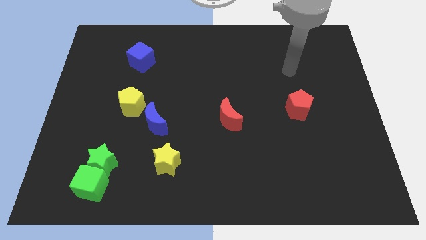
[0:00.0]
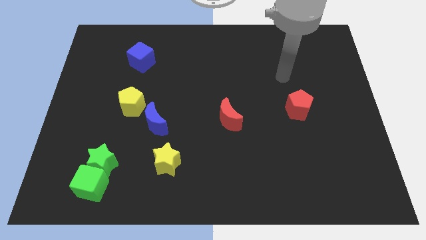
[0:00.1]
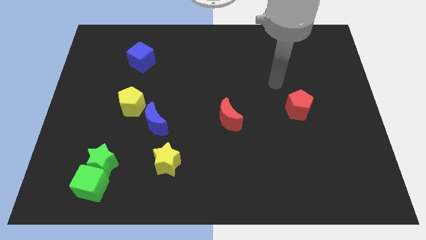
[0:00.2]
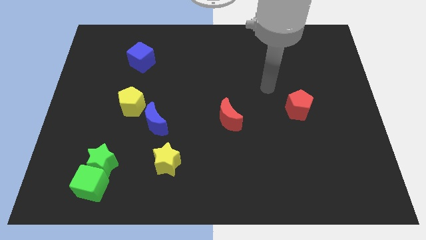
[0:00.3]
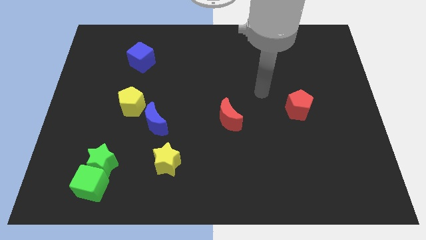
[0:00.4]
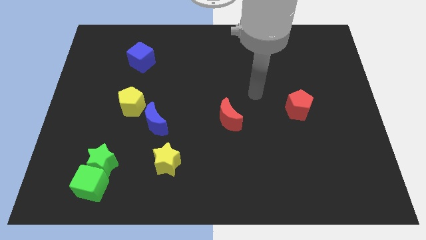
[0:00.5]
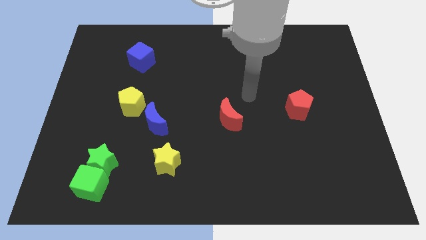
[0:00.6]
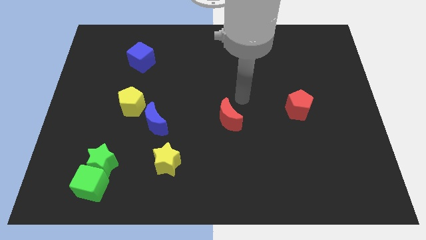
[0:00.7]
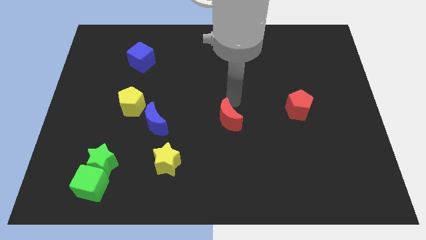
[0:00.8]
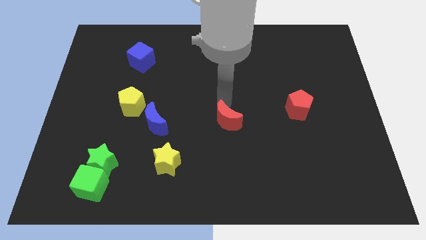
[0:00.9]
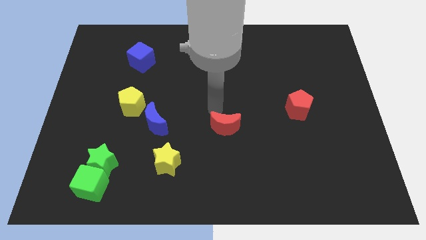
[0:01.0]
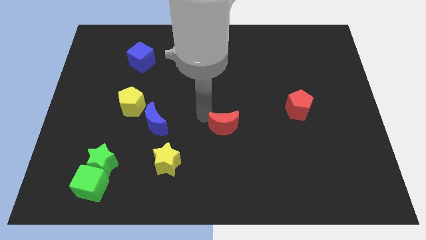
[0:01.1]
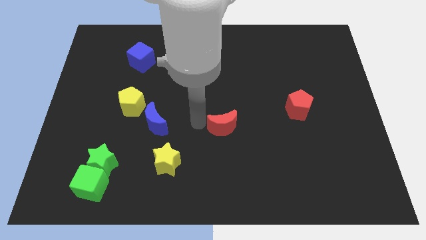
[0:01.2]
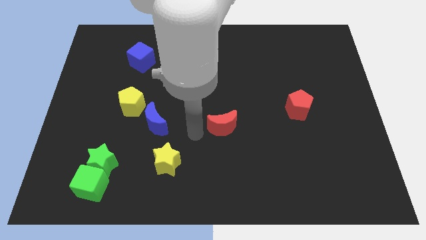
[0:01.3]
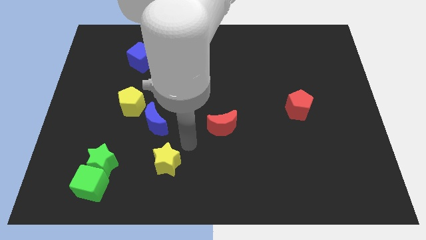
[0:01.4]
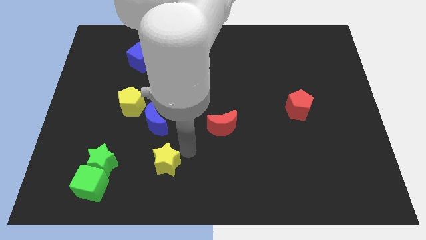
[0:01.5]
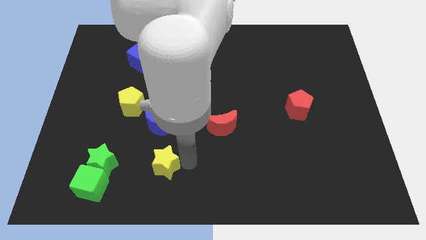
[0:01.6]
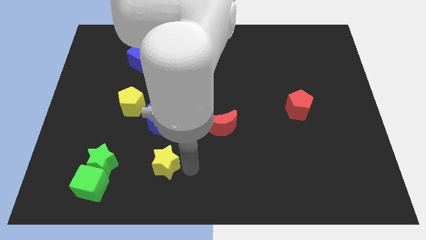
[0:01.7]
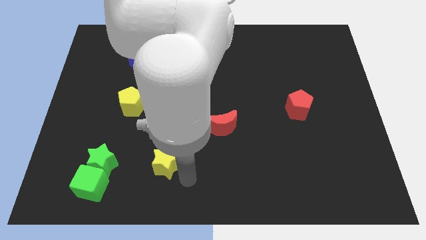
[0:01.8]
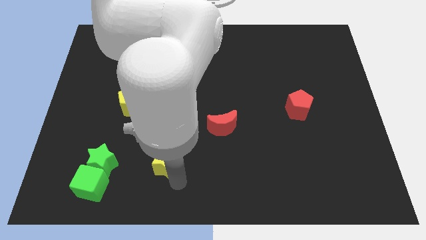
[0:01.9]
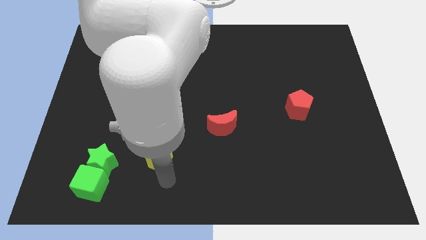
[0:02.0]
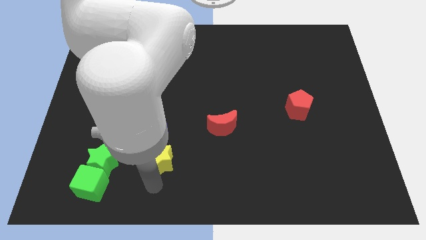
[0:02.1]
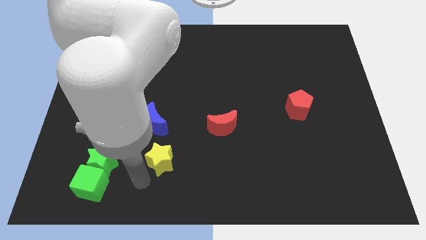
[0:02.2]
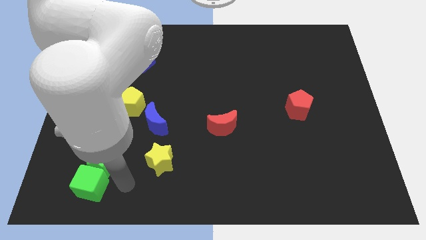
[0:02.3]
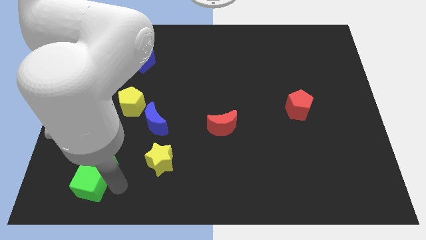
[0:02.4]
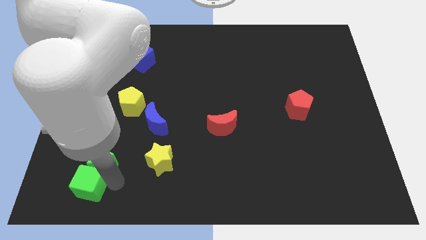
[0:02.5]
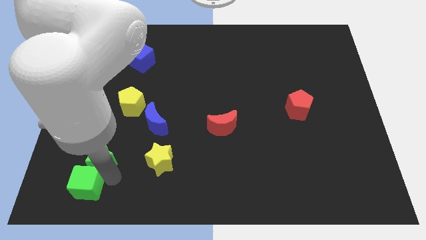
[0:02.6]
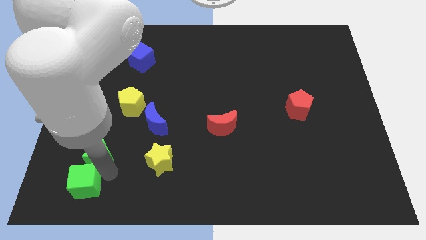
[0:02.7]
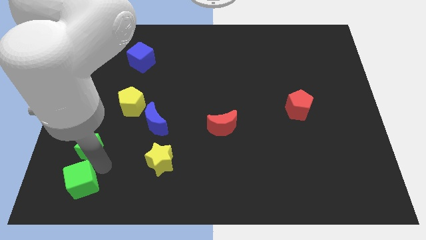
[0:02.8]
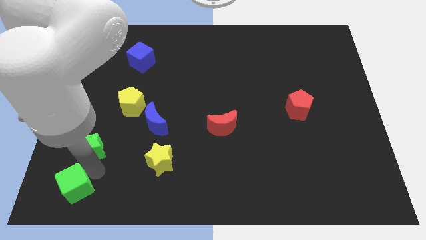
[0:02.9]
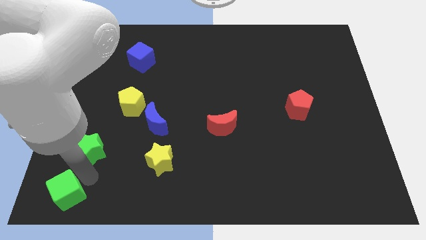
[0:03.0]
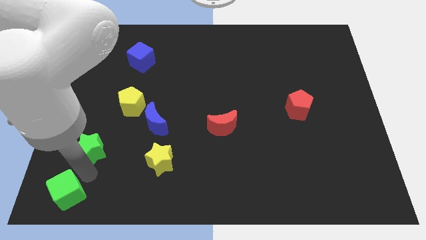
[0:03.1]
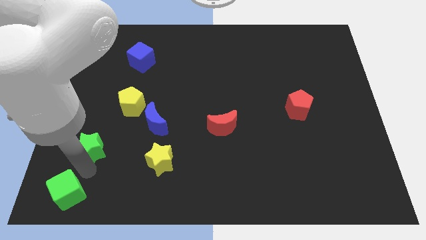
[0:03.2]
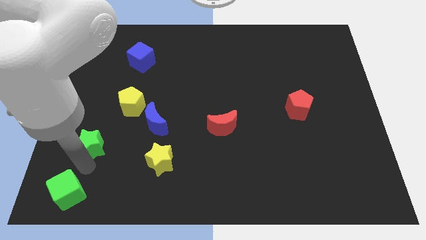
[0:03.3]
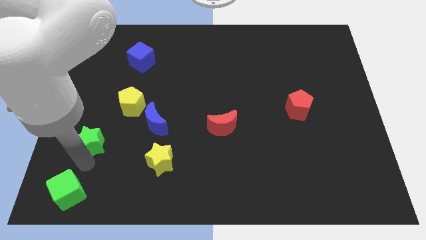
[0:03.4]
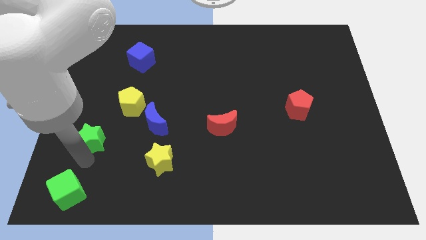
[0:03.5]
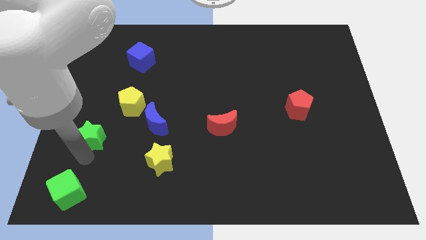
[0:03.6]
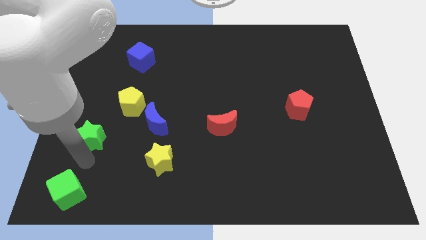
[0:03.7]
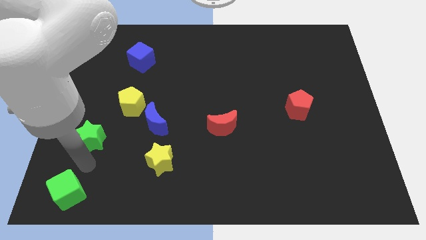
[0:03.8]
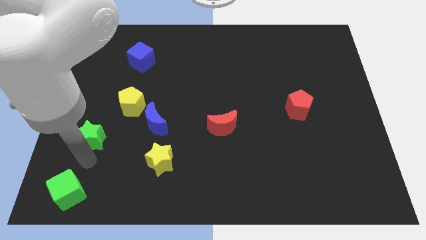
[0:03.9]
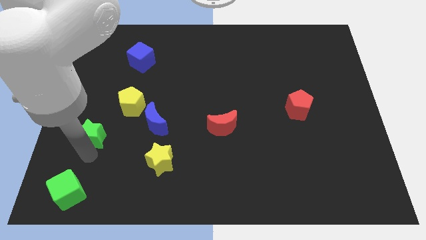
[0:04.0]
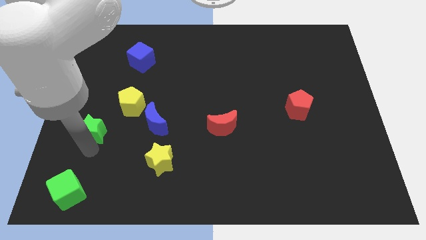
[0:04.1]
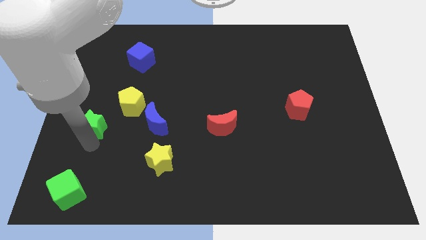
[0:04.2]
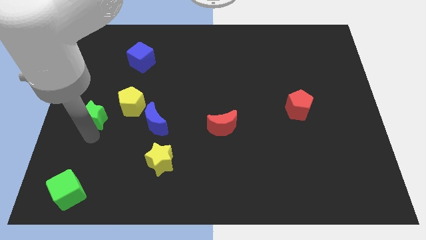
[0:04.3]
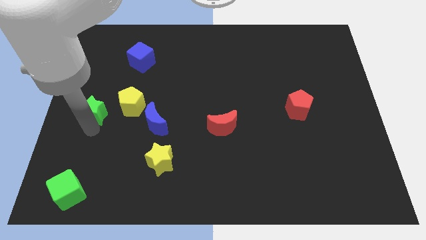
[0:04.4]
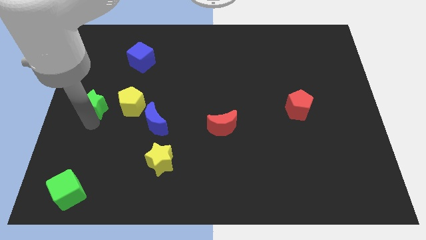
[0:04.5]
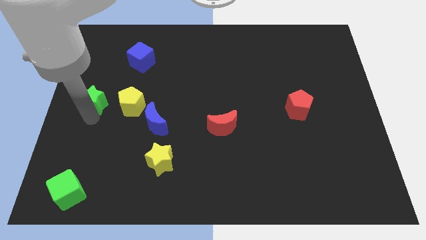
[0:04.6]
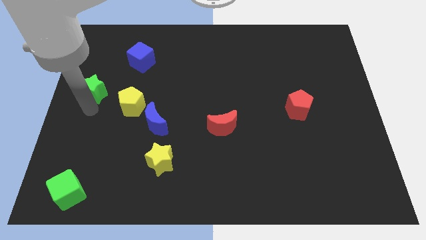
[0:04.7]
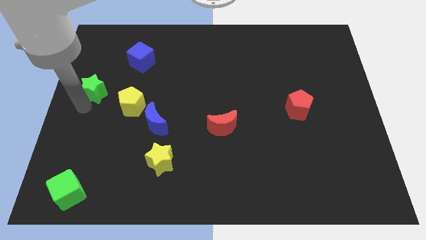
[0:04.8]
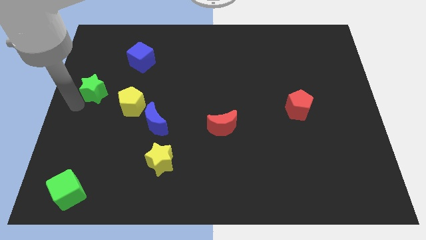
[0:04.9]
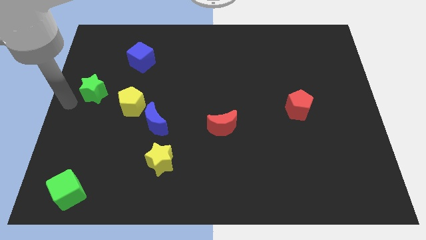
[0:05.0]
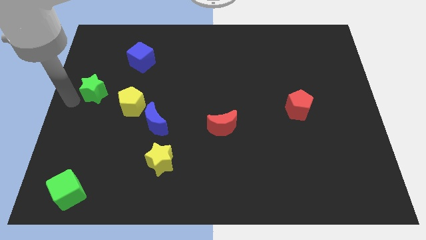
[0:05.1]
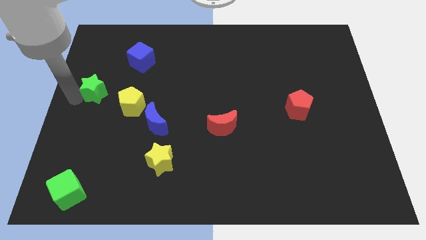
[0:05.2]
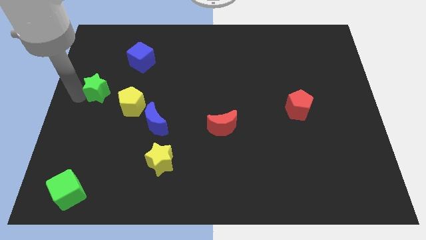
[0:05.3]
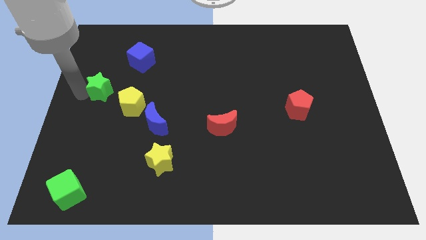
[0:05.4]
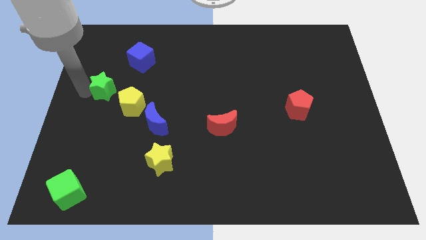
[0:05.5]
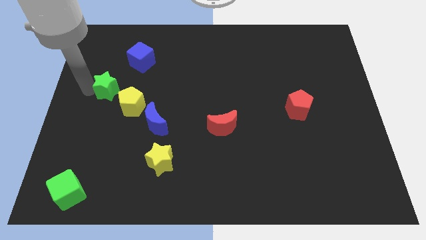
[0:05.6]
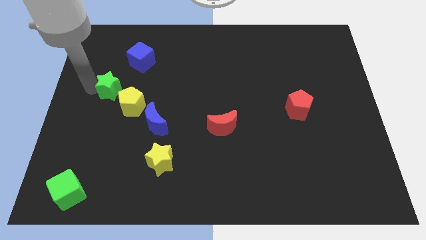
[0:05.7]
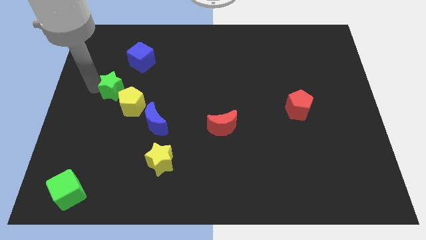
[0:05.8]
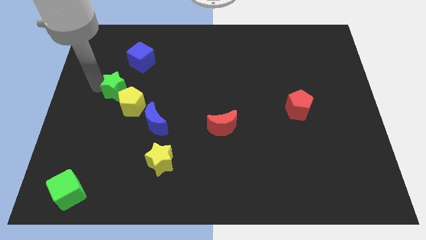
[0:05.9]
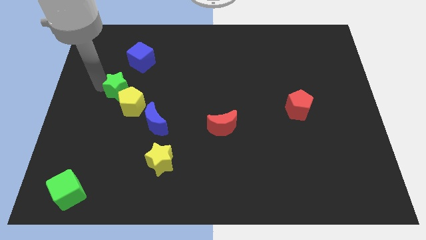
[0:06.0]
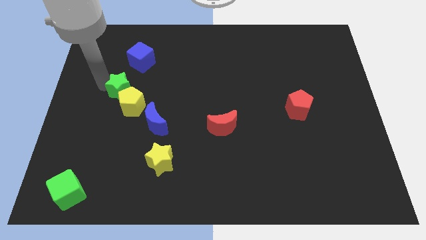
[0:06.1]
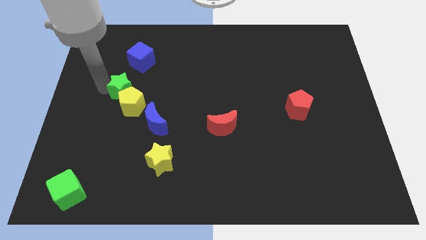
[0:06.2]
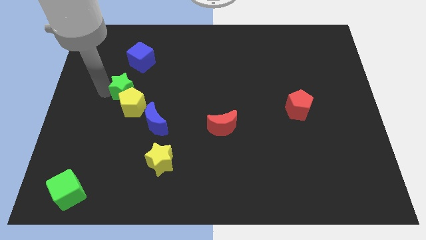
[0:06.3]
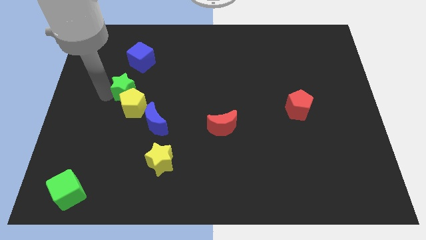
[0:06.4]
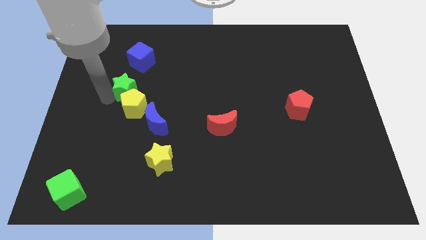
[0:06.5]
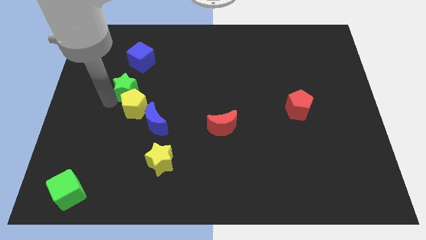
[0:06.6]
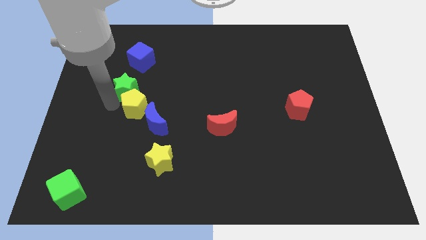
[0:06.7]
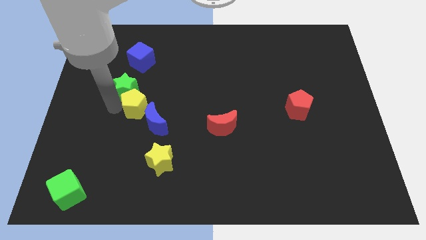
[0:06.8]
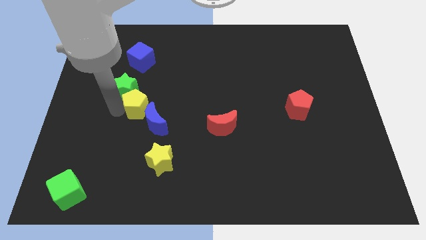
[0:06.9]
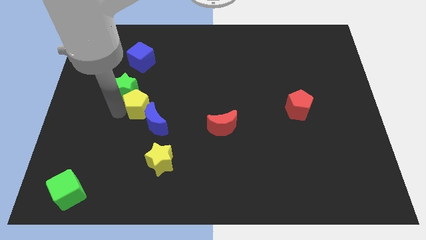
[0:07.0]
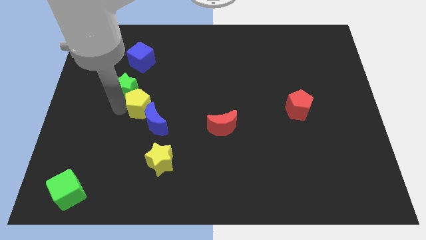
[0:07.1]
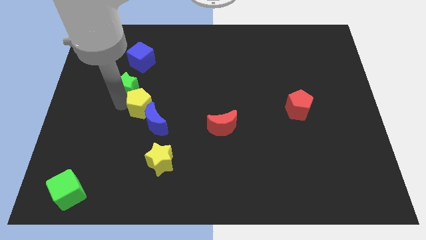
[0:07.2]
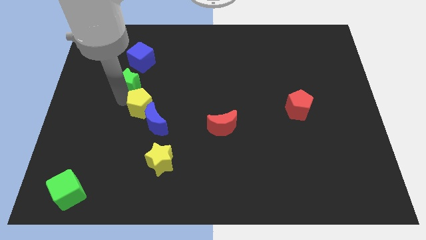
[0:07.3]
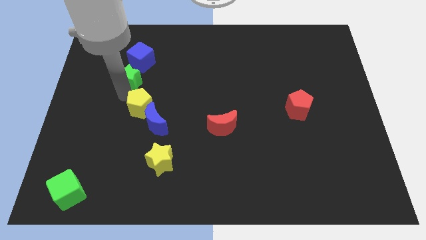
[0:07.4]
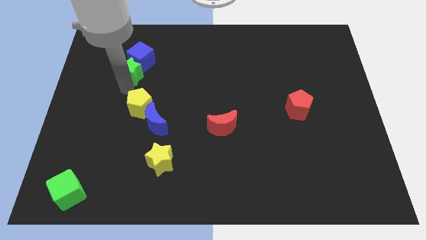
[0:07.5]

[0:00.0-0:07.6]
slide the green star next to the blue cube
